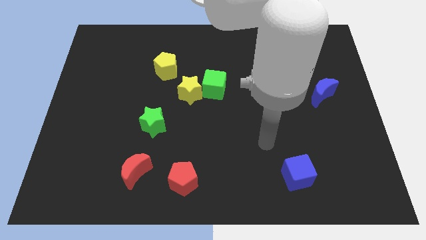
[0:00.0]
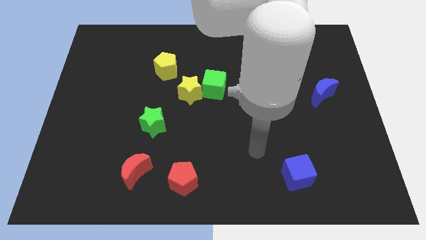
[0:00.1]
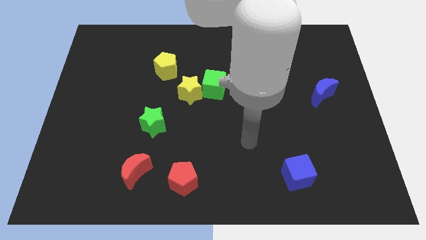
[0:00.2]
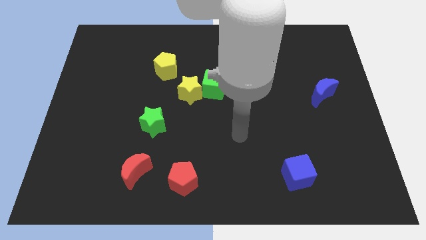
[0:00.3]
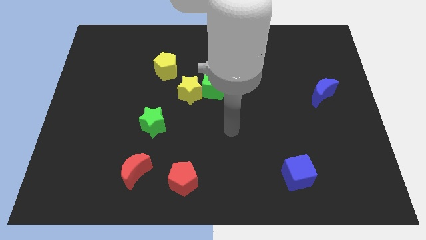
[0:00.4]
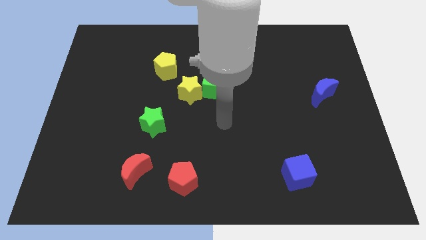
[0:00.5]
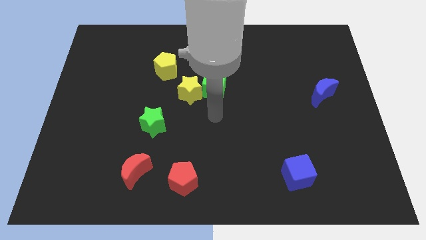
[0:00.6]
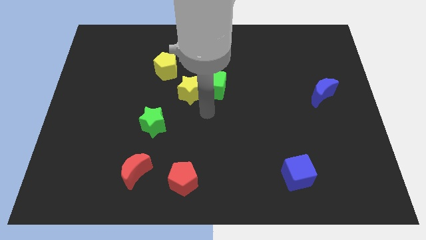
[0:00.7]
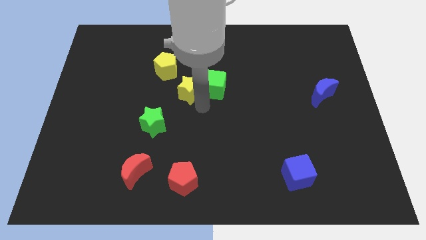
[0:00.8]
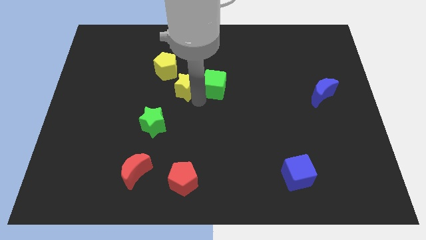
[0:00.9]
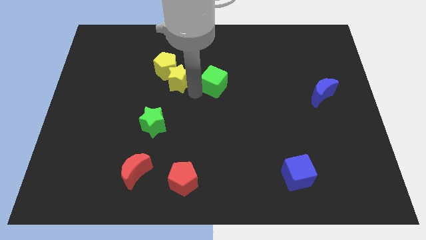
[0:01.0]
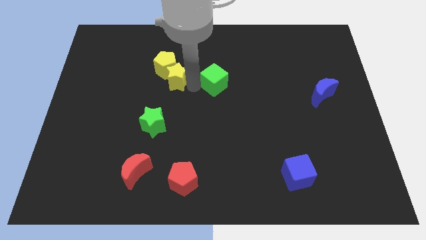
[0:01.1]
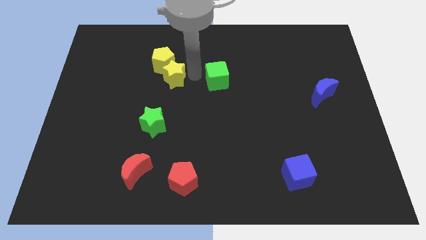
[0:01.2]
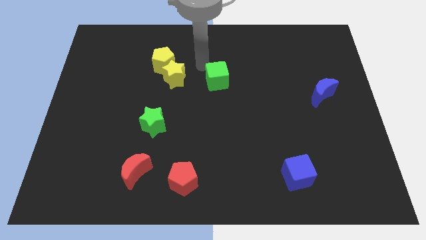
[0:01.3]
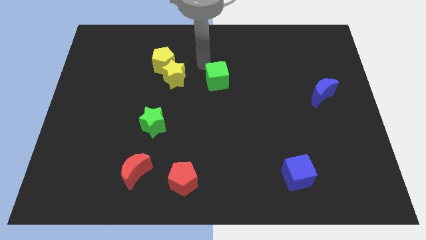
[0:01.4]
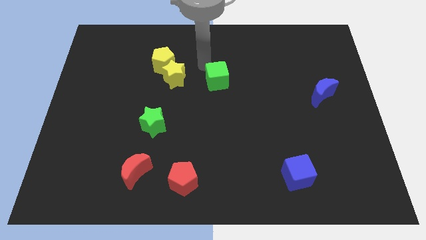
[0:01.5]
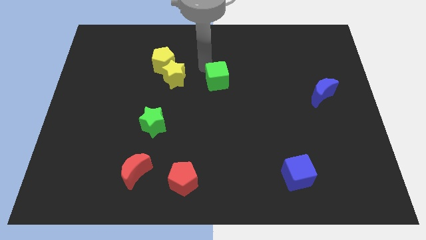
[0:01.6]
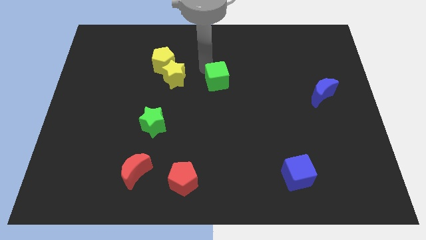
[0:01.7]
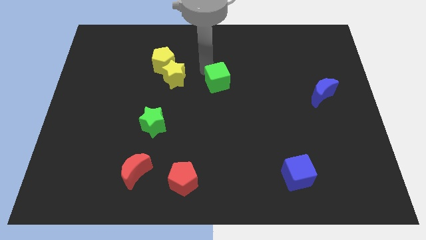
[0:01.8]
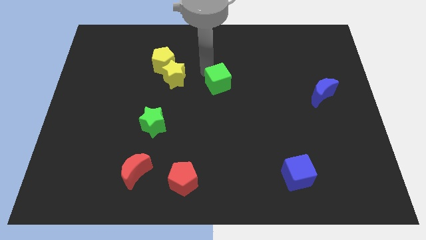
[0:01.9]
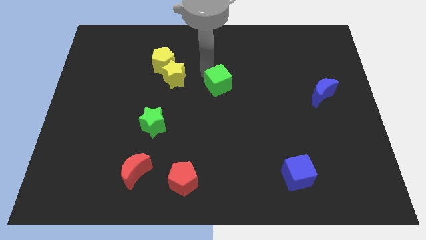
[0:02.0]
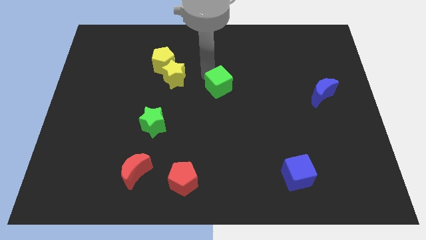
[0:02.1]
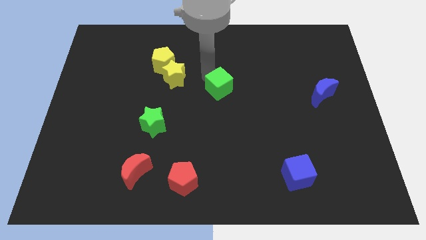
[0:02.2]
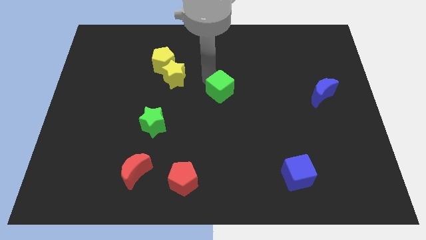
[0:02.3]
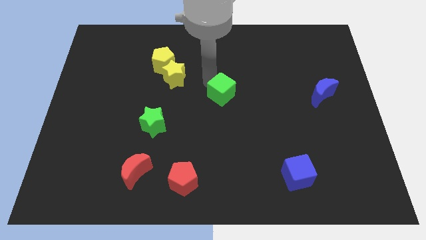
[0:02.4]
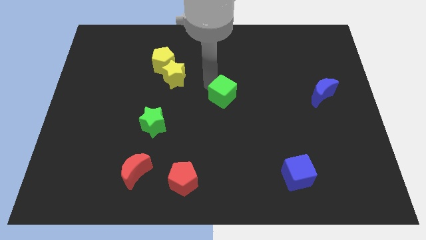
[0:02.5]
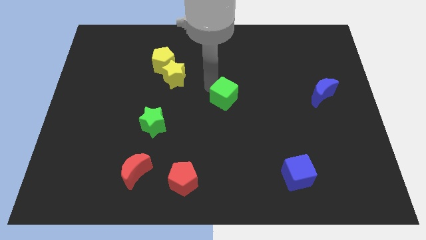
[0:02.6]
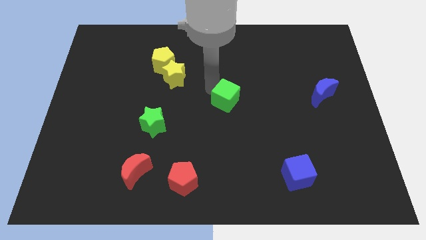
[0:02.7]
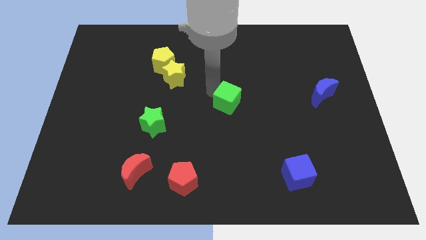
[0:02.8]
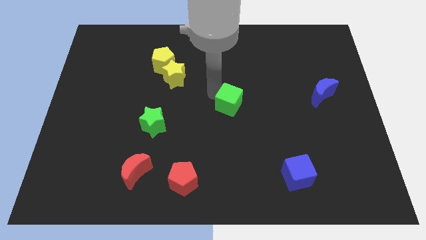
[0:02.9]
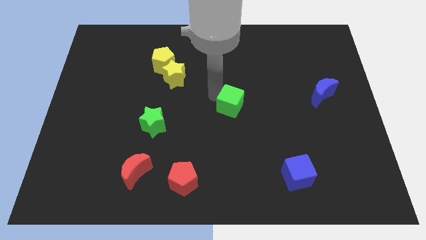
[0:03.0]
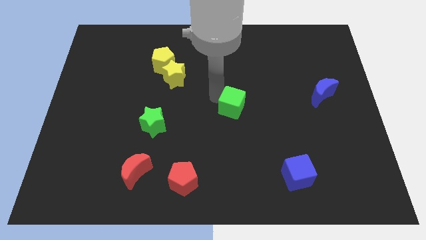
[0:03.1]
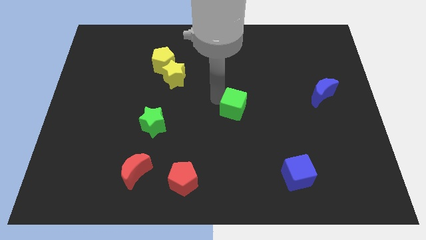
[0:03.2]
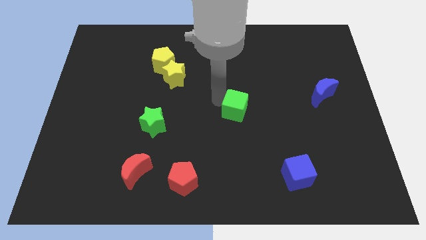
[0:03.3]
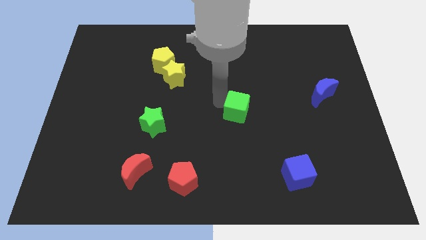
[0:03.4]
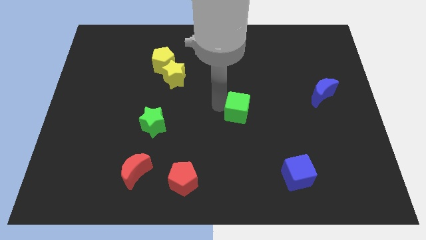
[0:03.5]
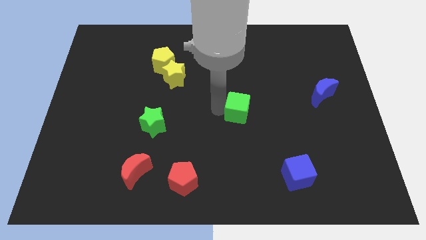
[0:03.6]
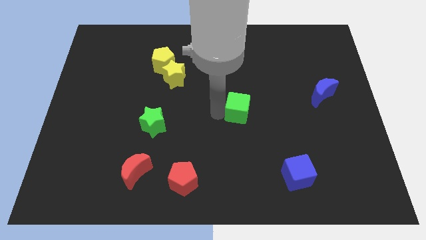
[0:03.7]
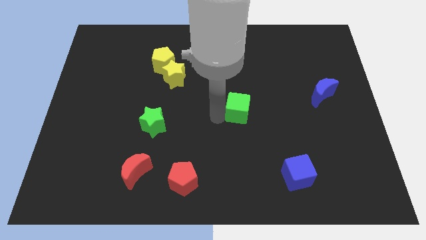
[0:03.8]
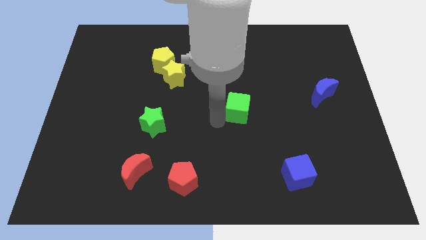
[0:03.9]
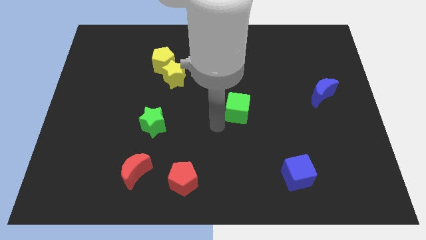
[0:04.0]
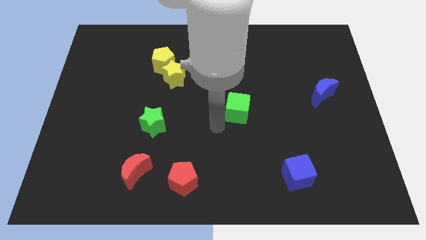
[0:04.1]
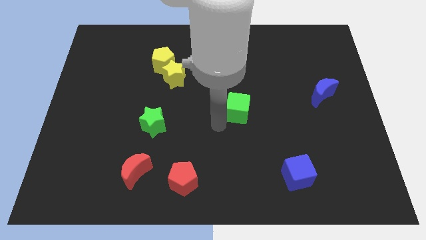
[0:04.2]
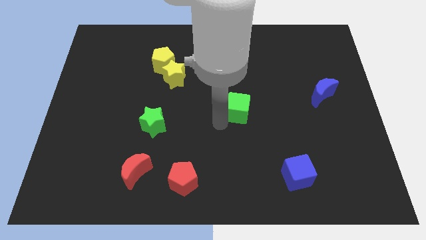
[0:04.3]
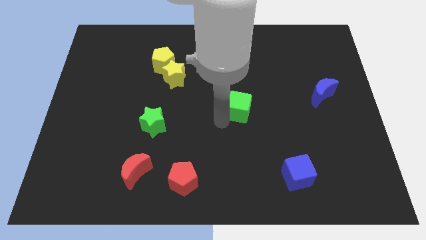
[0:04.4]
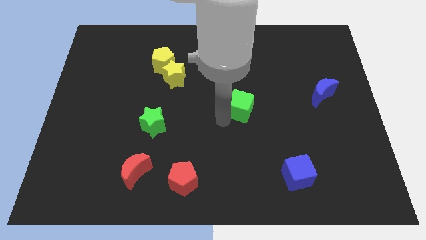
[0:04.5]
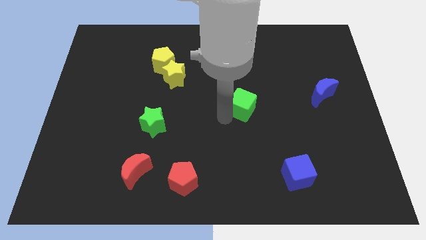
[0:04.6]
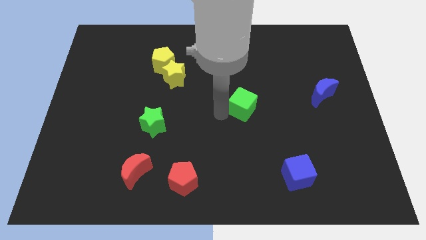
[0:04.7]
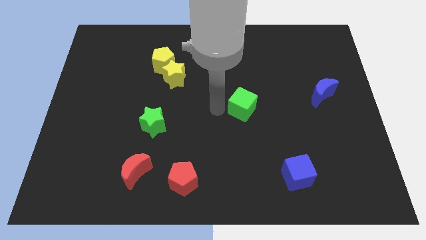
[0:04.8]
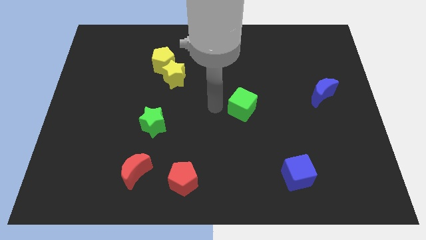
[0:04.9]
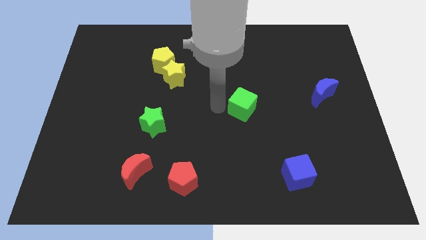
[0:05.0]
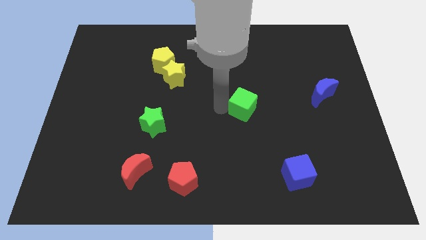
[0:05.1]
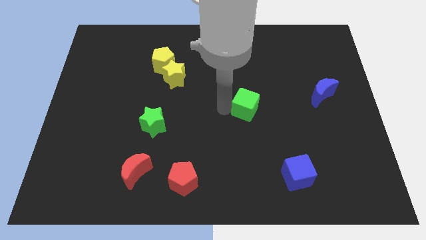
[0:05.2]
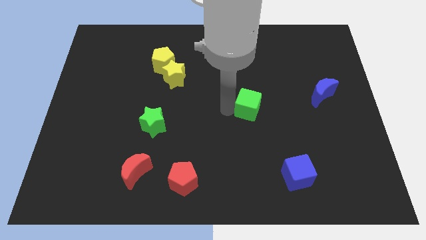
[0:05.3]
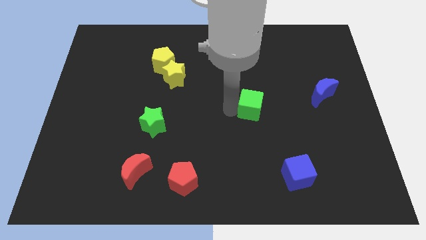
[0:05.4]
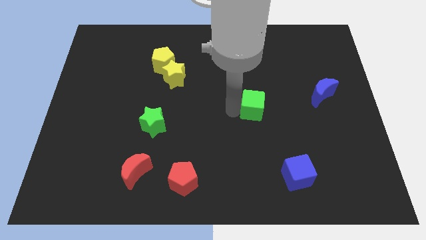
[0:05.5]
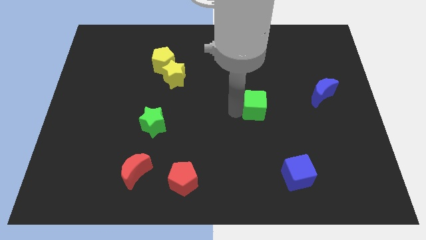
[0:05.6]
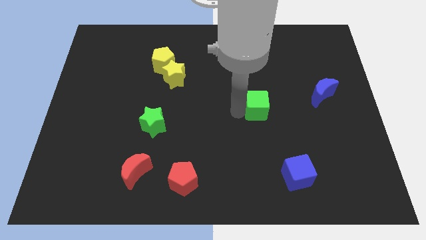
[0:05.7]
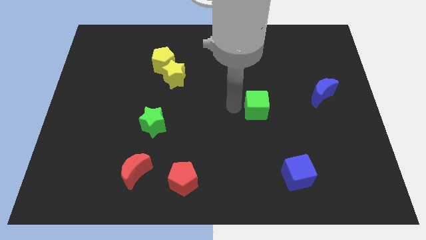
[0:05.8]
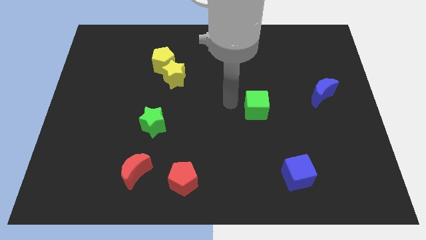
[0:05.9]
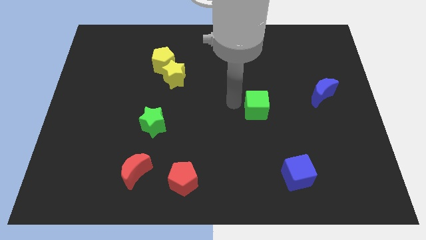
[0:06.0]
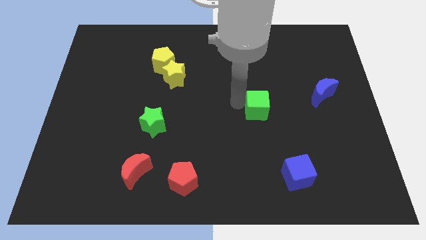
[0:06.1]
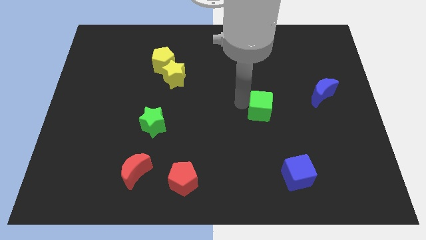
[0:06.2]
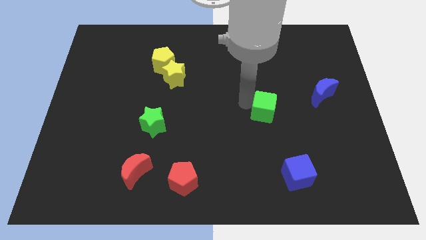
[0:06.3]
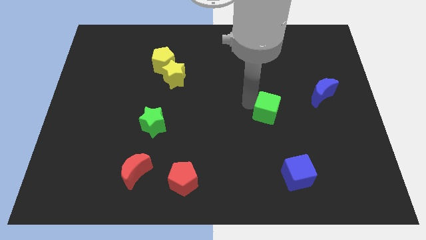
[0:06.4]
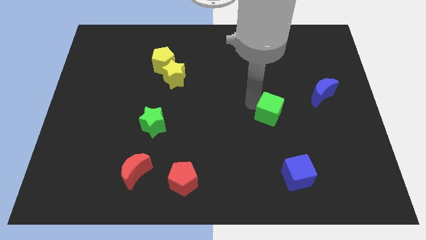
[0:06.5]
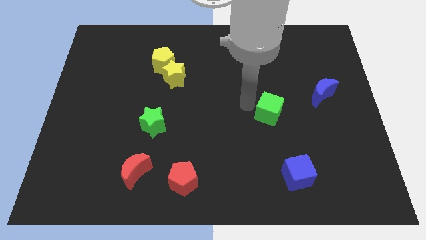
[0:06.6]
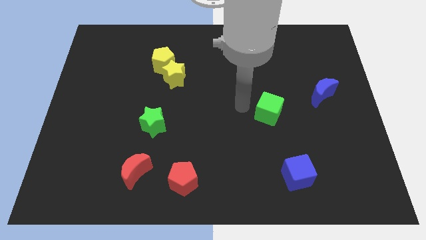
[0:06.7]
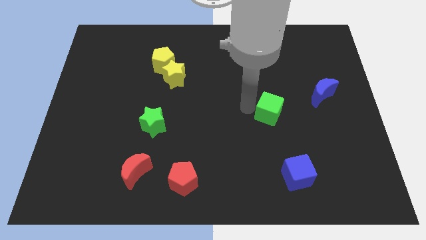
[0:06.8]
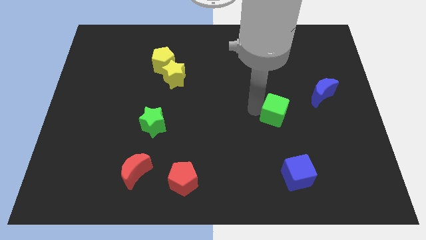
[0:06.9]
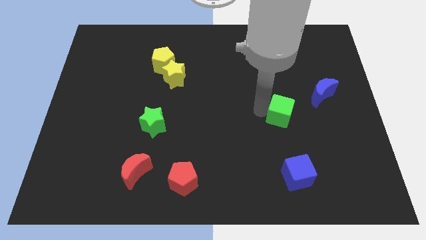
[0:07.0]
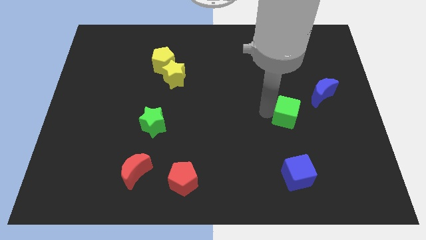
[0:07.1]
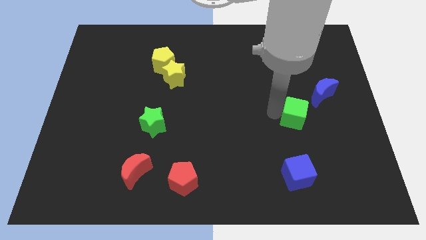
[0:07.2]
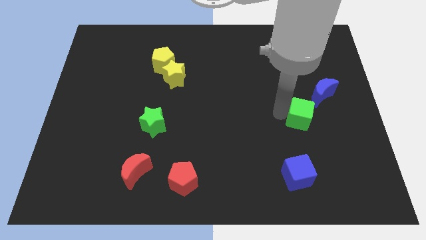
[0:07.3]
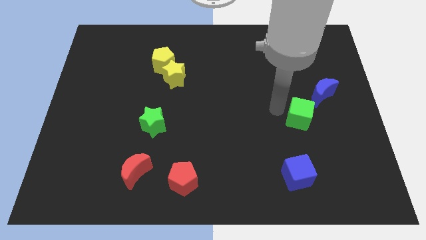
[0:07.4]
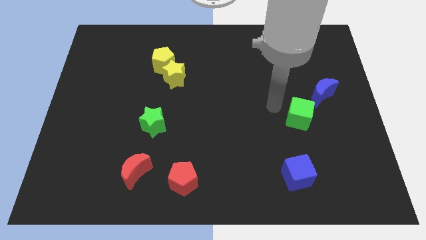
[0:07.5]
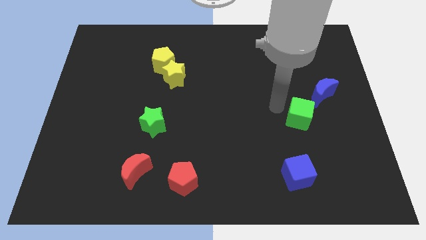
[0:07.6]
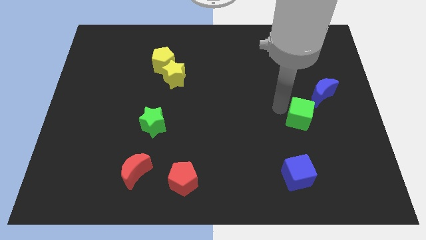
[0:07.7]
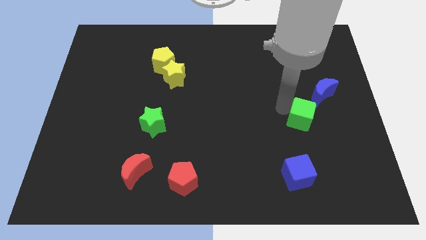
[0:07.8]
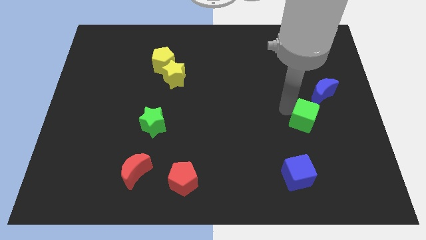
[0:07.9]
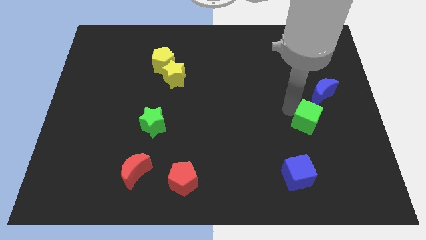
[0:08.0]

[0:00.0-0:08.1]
push the green cube below the blue moon
